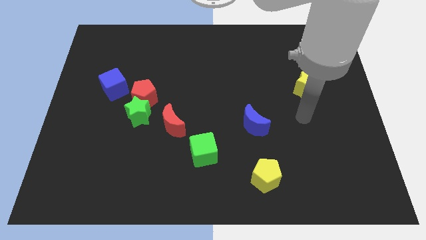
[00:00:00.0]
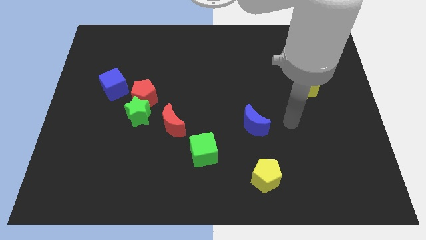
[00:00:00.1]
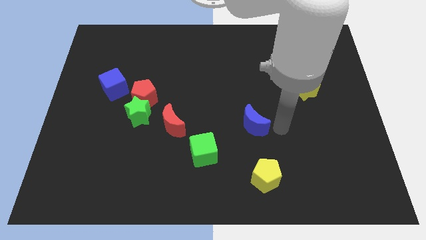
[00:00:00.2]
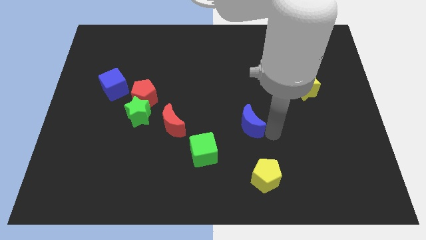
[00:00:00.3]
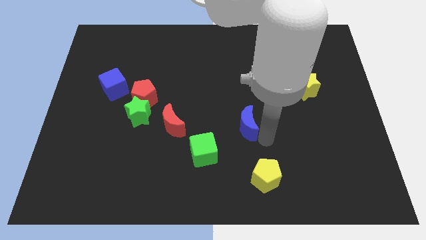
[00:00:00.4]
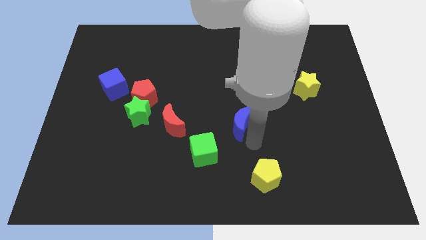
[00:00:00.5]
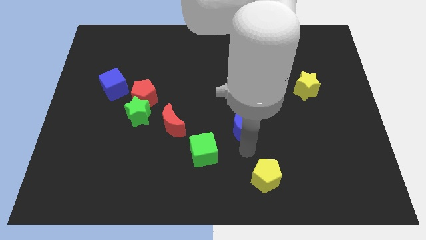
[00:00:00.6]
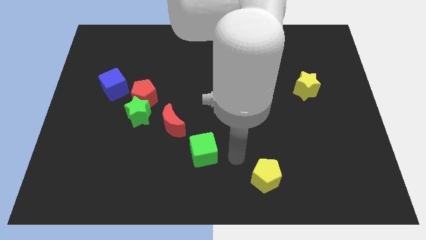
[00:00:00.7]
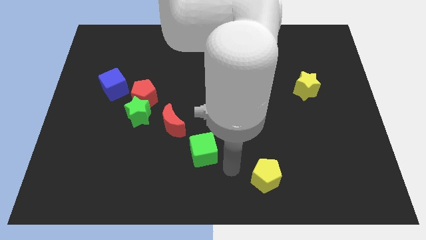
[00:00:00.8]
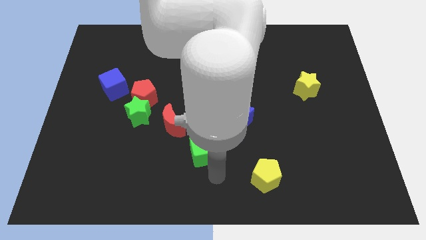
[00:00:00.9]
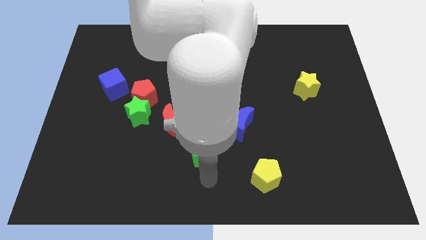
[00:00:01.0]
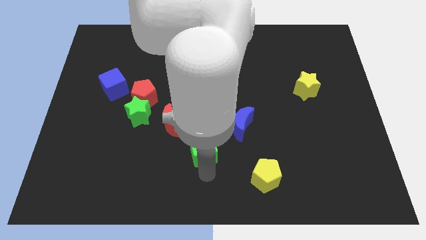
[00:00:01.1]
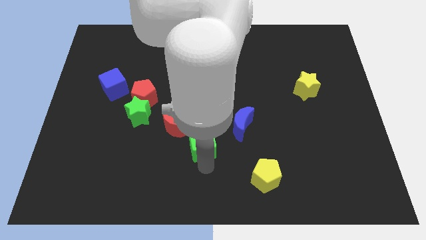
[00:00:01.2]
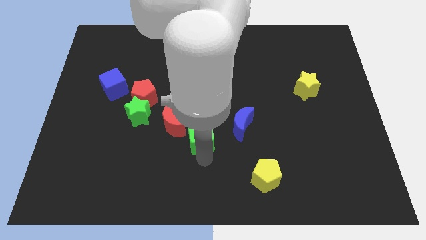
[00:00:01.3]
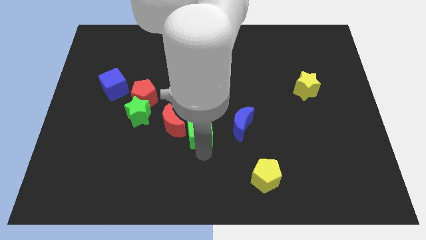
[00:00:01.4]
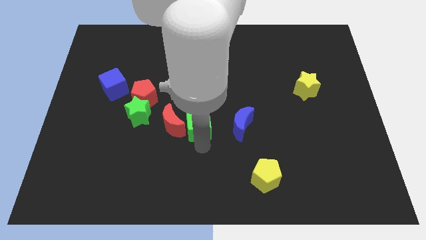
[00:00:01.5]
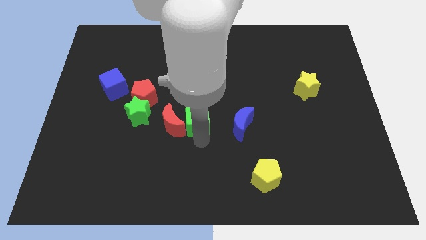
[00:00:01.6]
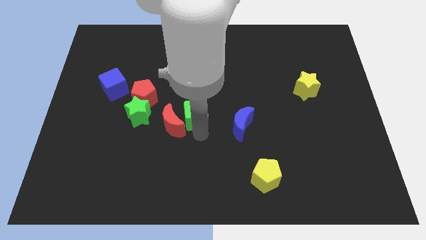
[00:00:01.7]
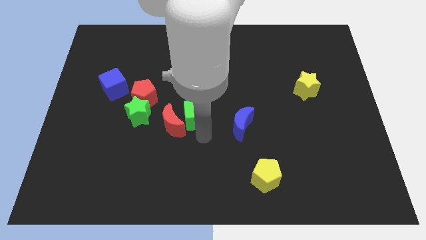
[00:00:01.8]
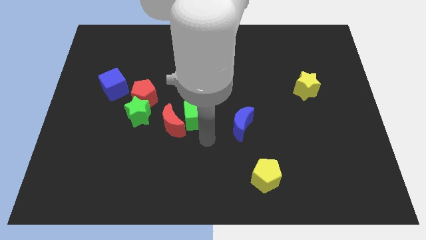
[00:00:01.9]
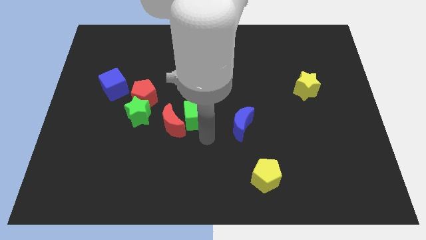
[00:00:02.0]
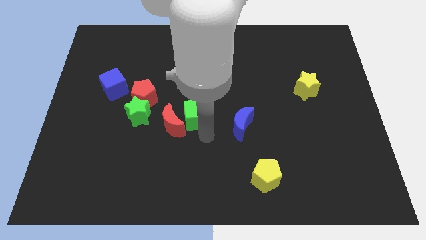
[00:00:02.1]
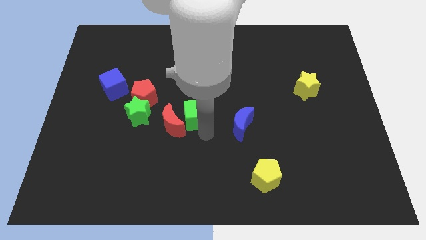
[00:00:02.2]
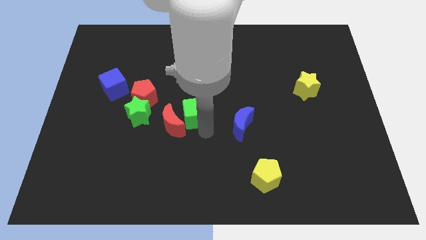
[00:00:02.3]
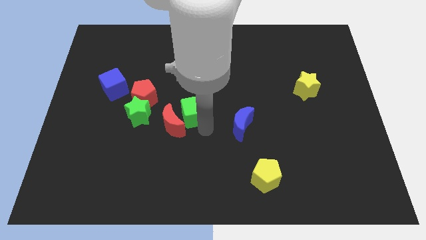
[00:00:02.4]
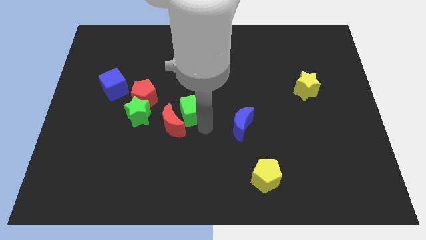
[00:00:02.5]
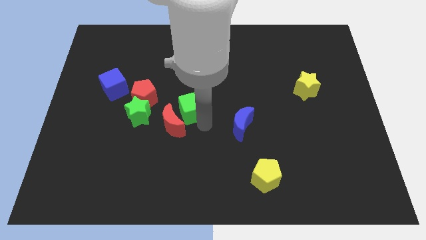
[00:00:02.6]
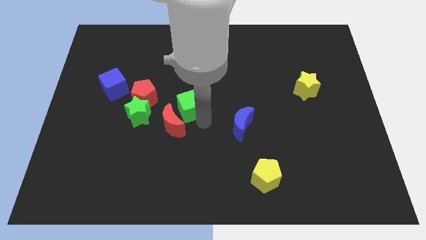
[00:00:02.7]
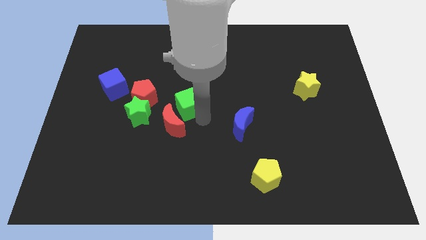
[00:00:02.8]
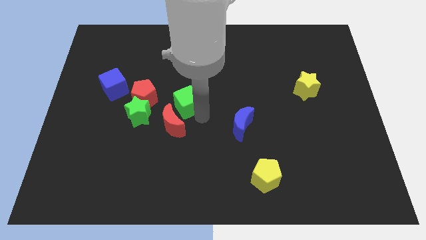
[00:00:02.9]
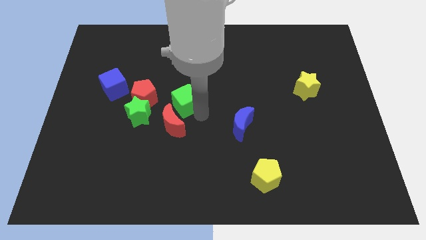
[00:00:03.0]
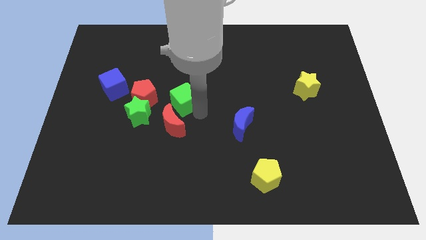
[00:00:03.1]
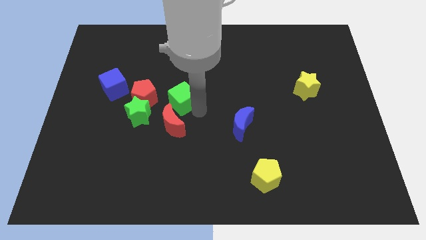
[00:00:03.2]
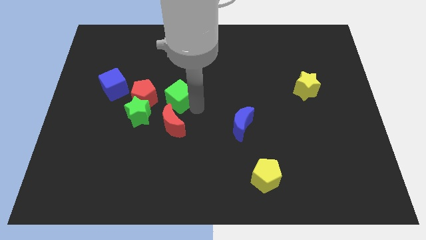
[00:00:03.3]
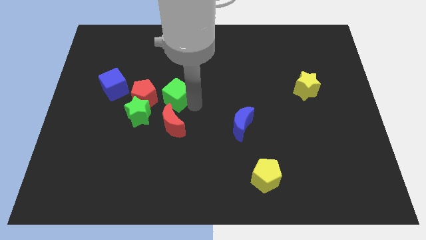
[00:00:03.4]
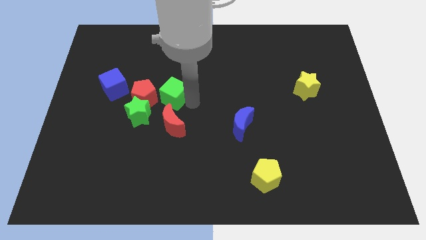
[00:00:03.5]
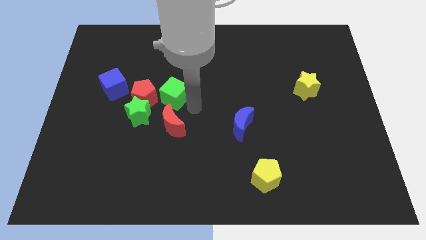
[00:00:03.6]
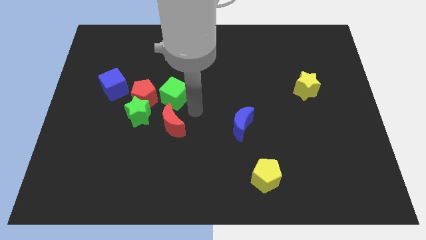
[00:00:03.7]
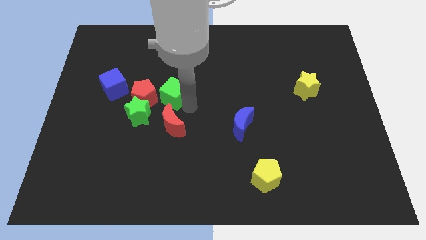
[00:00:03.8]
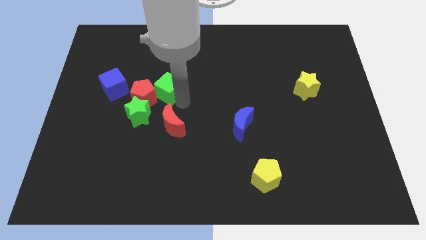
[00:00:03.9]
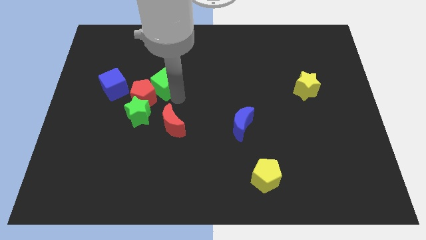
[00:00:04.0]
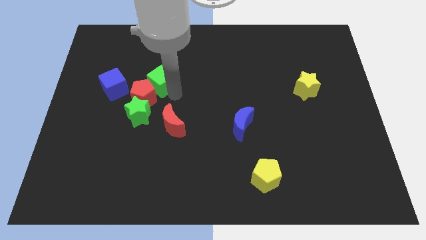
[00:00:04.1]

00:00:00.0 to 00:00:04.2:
slide the green cube up and to the left

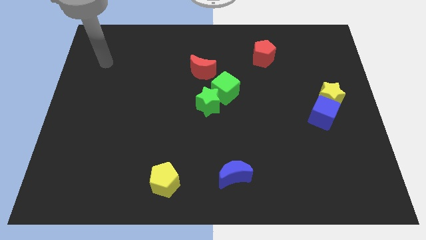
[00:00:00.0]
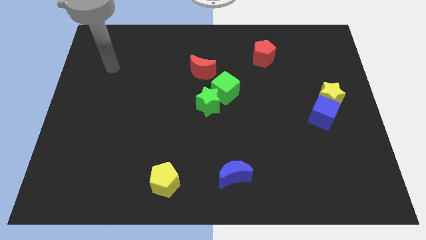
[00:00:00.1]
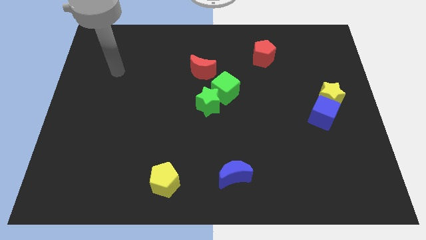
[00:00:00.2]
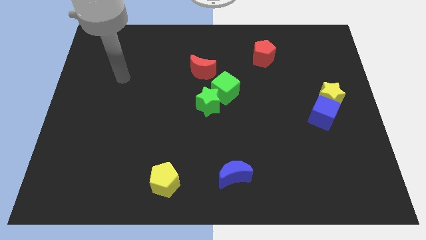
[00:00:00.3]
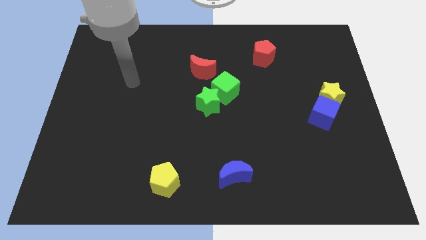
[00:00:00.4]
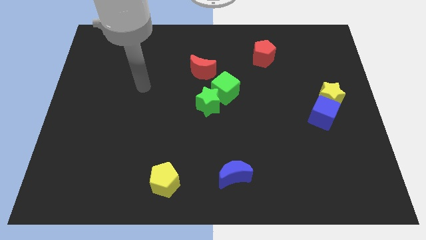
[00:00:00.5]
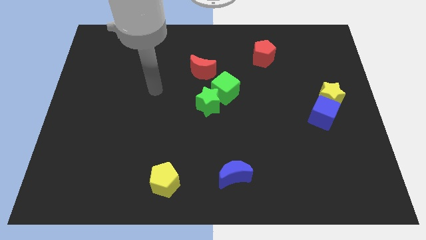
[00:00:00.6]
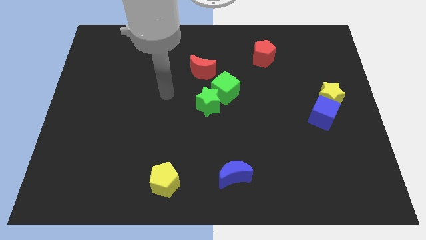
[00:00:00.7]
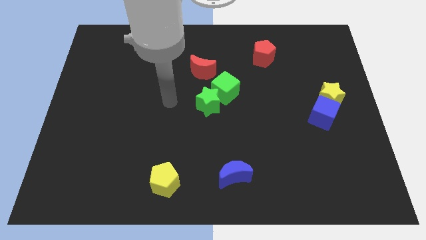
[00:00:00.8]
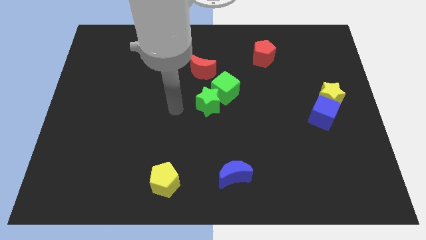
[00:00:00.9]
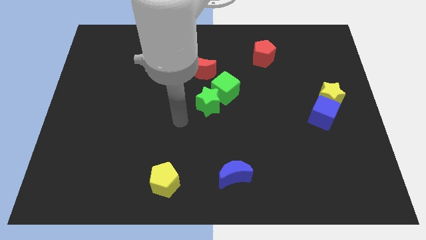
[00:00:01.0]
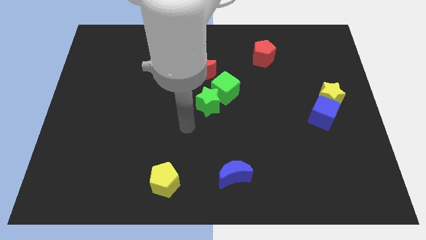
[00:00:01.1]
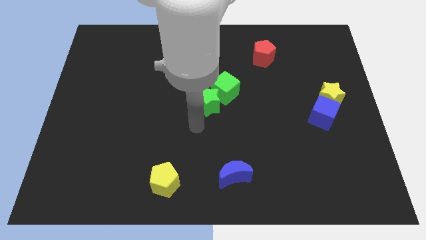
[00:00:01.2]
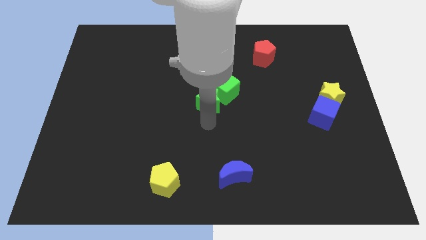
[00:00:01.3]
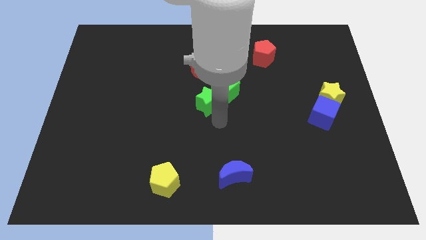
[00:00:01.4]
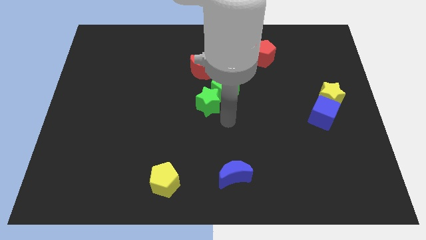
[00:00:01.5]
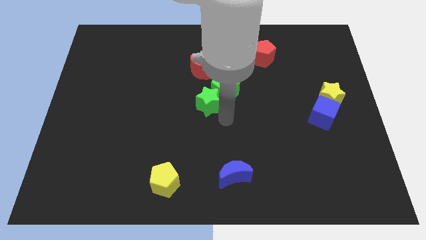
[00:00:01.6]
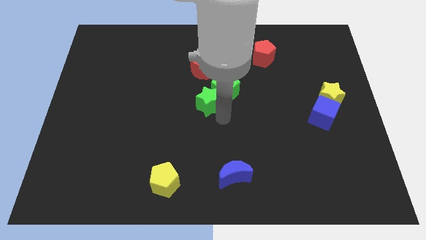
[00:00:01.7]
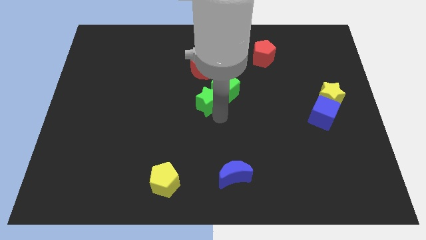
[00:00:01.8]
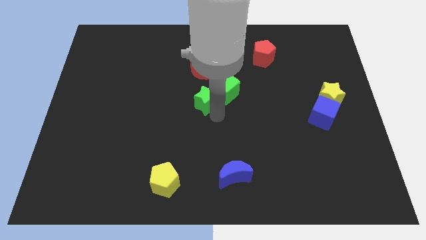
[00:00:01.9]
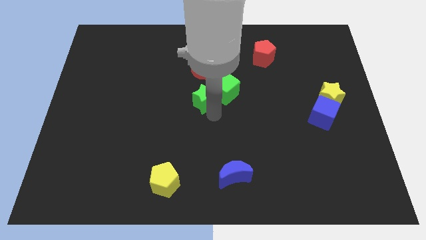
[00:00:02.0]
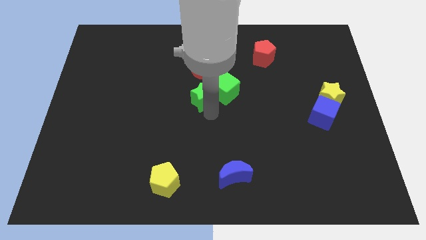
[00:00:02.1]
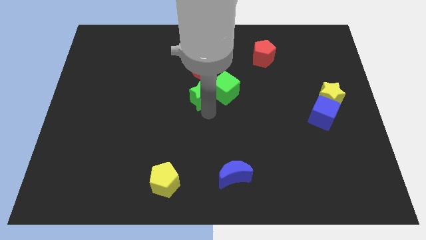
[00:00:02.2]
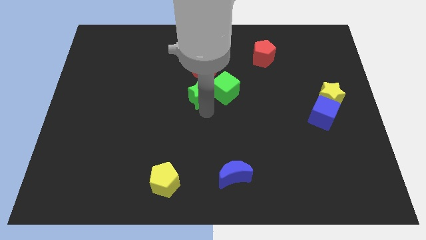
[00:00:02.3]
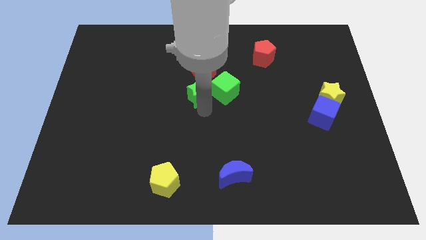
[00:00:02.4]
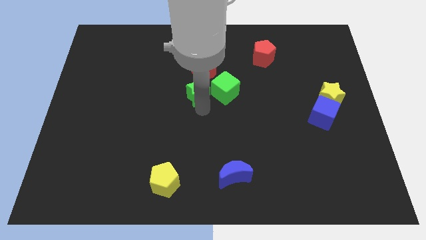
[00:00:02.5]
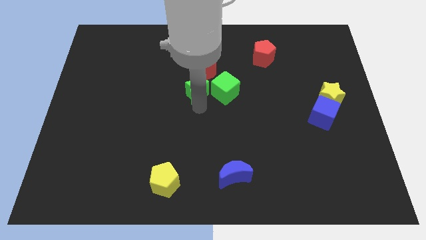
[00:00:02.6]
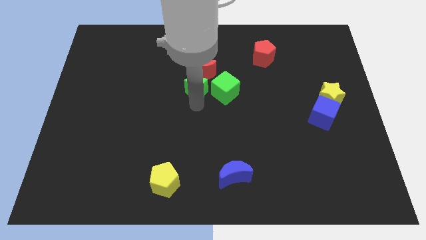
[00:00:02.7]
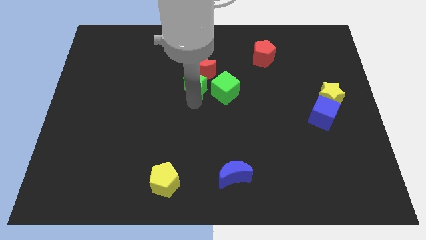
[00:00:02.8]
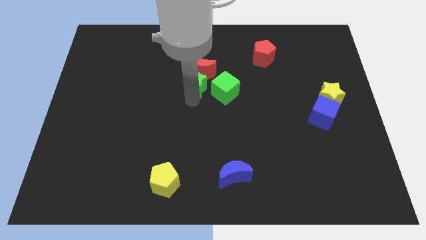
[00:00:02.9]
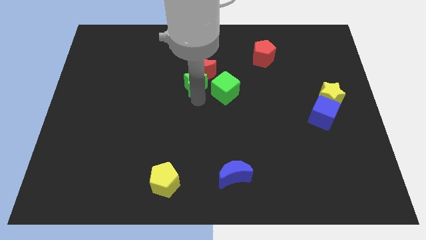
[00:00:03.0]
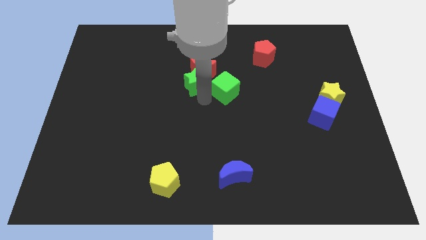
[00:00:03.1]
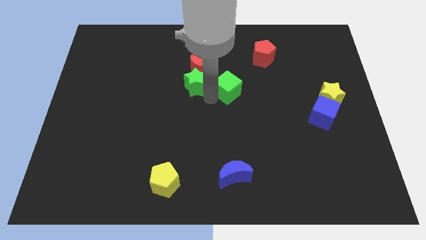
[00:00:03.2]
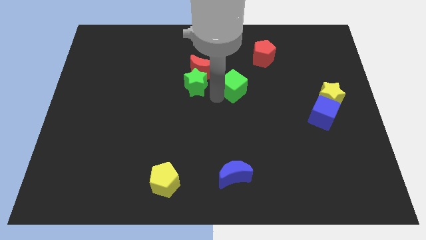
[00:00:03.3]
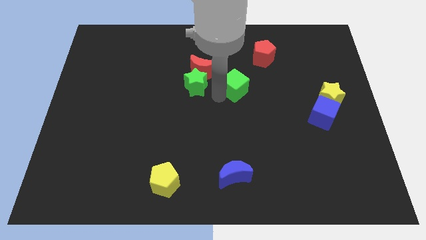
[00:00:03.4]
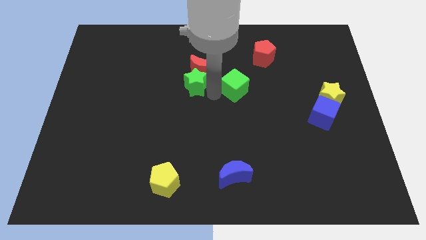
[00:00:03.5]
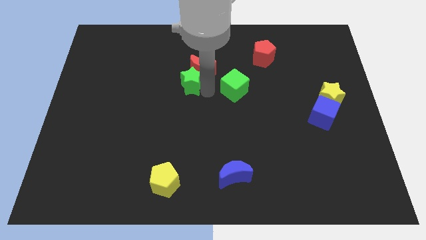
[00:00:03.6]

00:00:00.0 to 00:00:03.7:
move the green star diagonally up and left slightly
